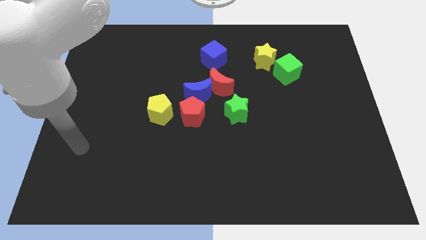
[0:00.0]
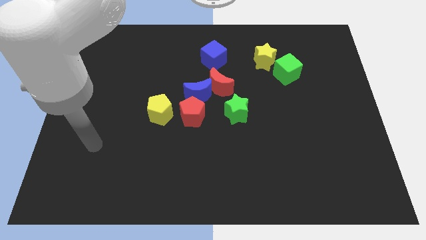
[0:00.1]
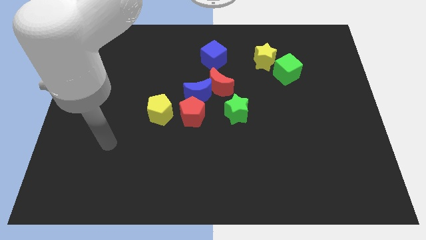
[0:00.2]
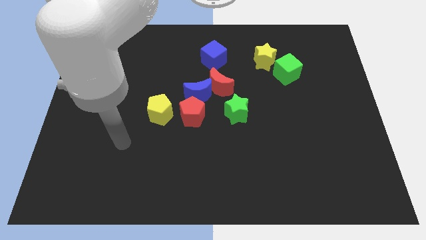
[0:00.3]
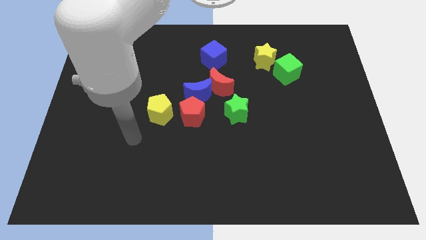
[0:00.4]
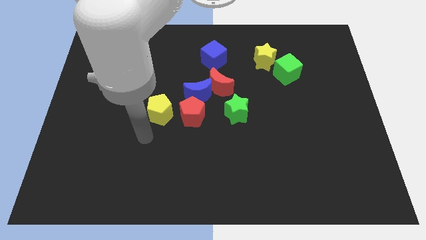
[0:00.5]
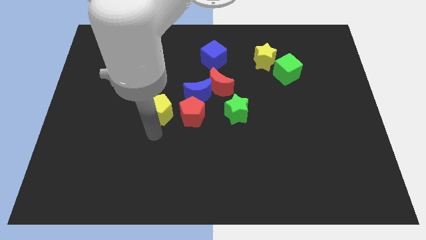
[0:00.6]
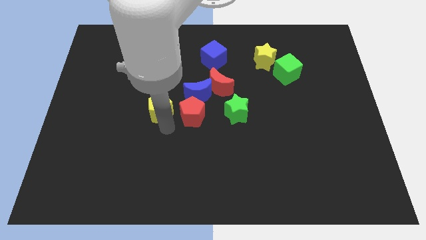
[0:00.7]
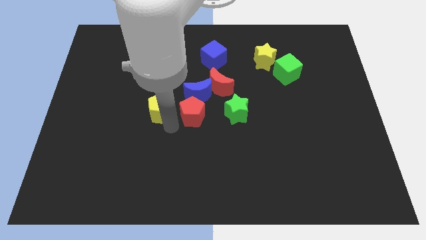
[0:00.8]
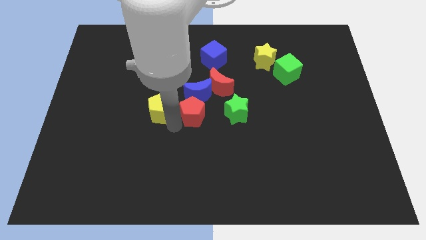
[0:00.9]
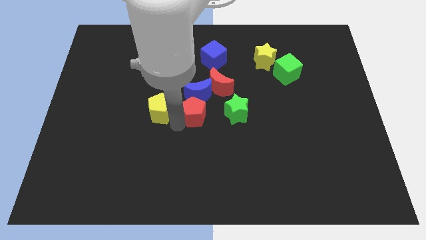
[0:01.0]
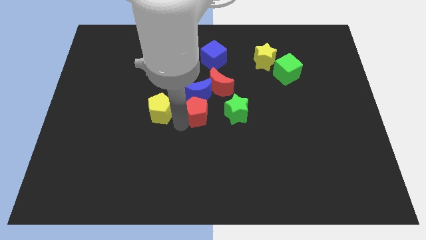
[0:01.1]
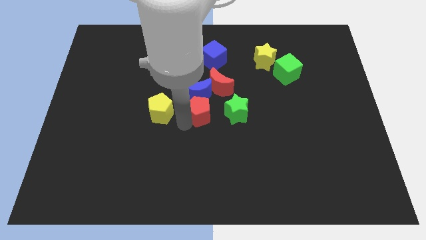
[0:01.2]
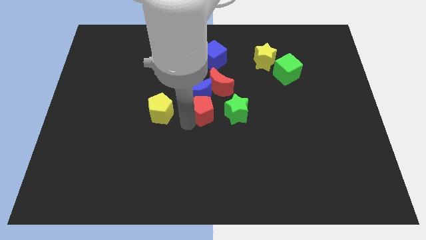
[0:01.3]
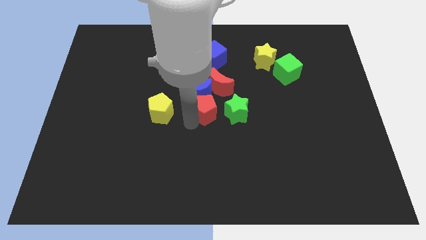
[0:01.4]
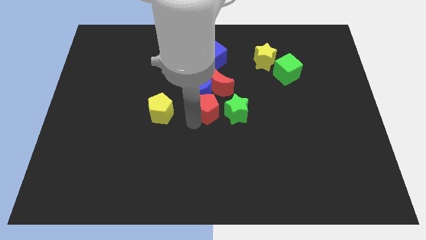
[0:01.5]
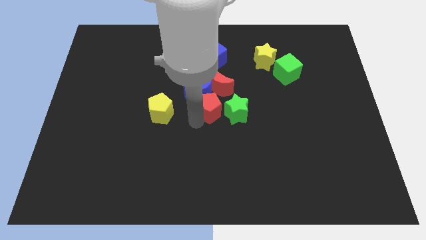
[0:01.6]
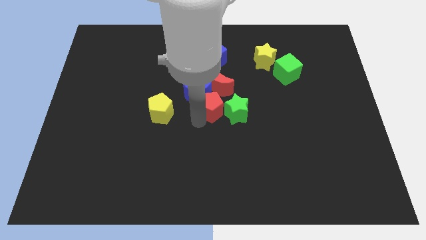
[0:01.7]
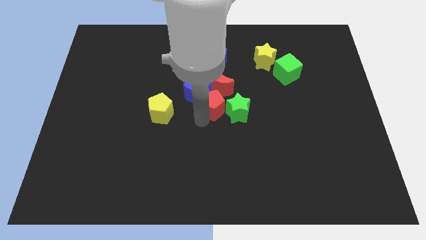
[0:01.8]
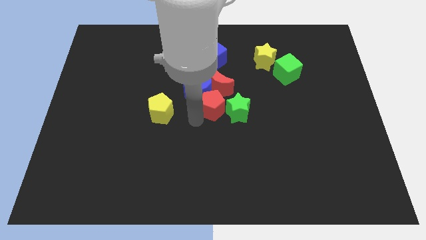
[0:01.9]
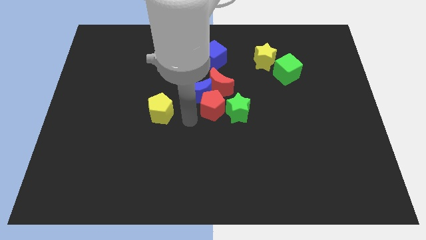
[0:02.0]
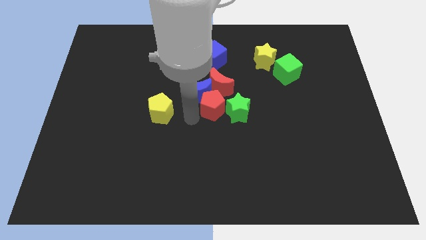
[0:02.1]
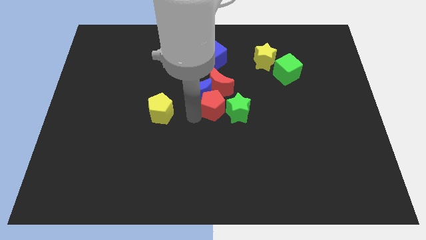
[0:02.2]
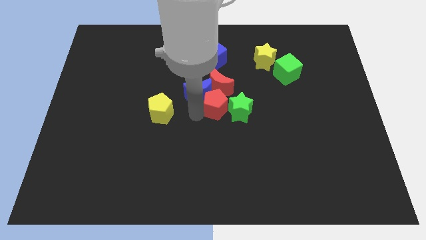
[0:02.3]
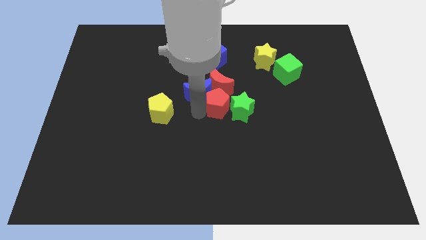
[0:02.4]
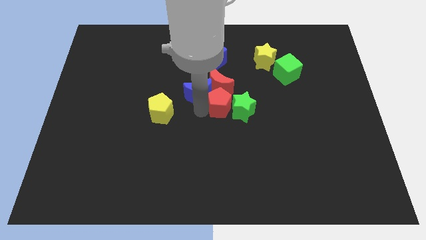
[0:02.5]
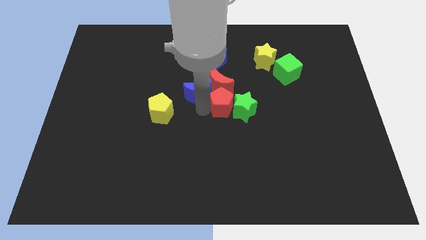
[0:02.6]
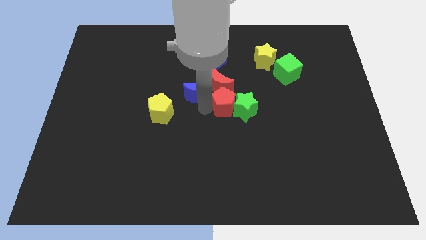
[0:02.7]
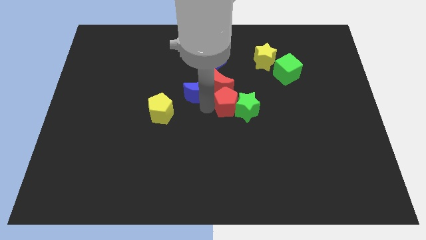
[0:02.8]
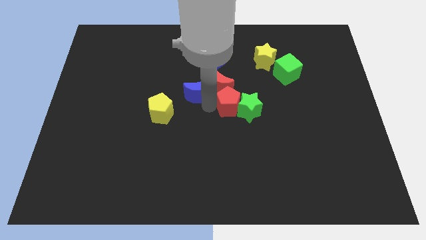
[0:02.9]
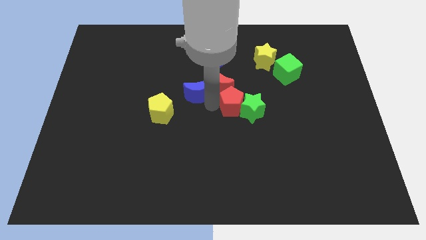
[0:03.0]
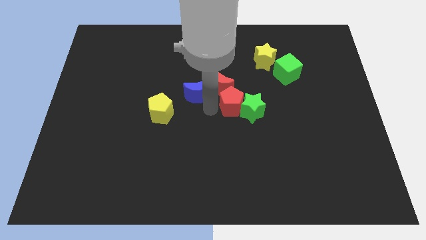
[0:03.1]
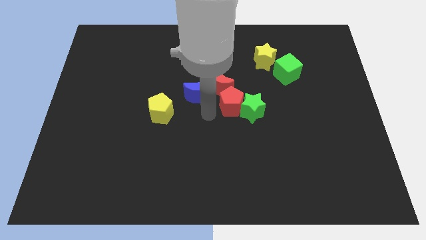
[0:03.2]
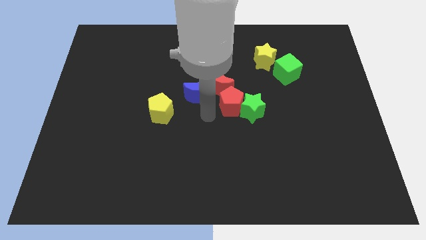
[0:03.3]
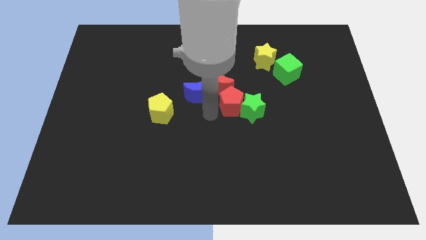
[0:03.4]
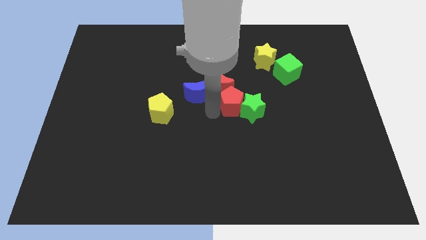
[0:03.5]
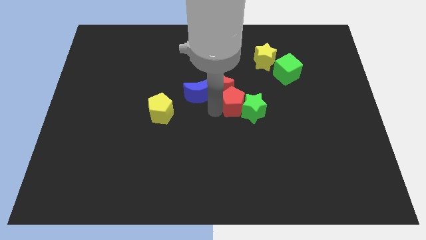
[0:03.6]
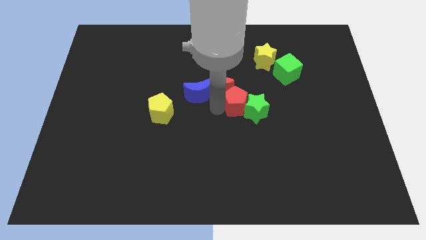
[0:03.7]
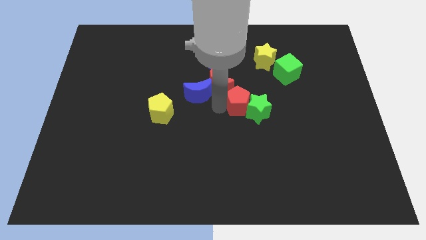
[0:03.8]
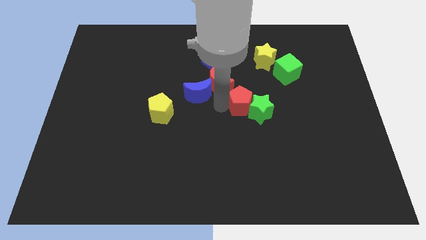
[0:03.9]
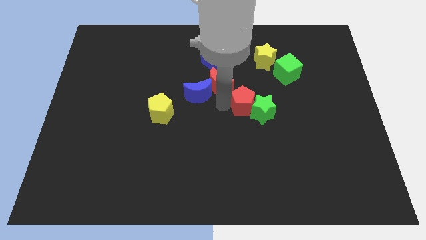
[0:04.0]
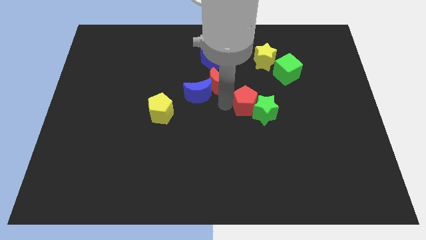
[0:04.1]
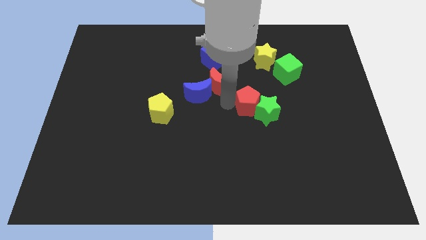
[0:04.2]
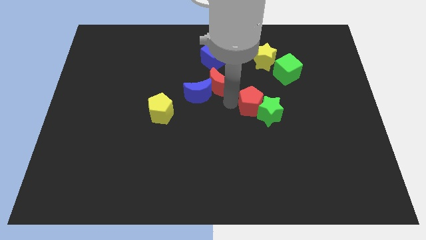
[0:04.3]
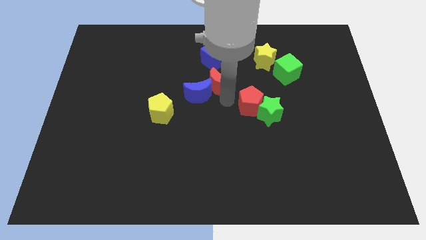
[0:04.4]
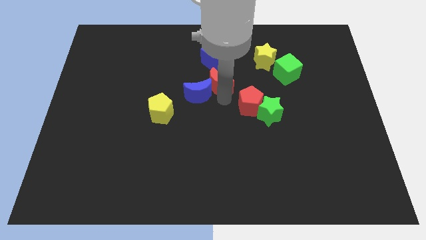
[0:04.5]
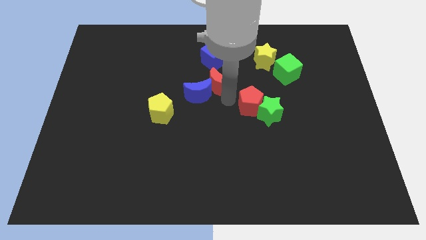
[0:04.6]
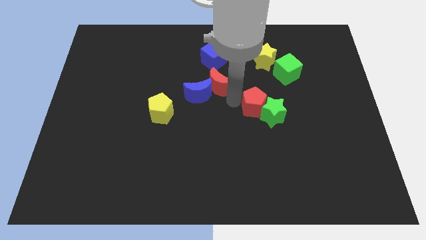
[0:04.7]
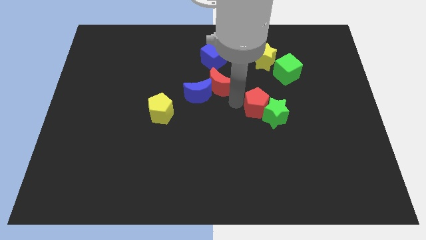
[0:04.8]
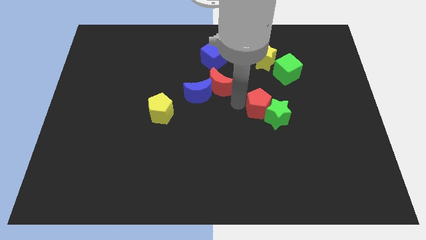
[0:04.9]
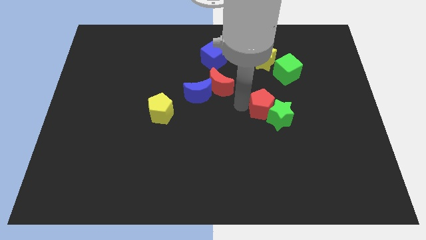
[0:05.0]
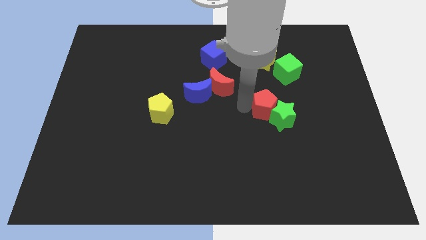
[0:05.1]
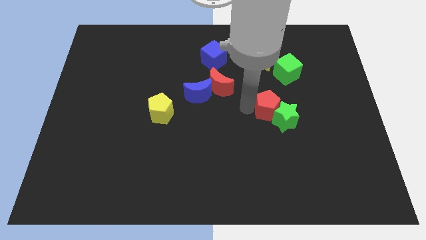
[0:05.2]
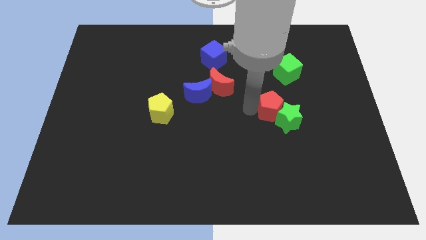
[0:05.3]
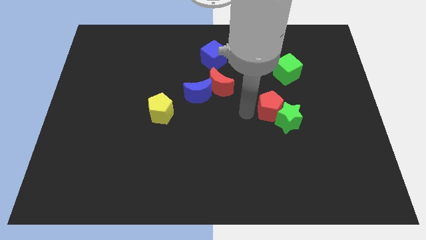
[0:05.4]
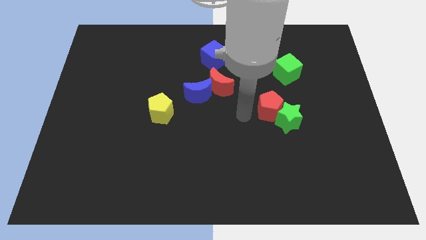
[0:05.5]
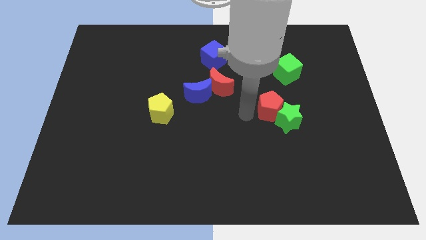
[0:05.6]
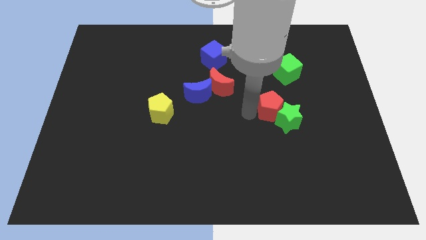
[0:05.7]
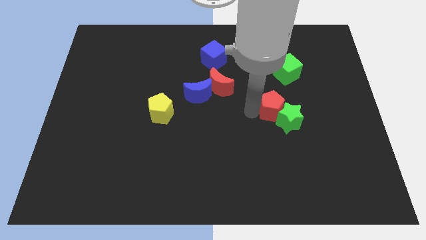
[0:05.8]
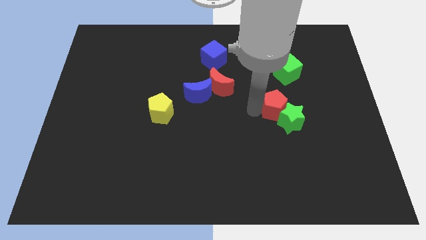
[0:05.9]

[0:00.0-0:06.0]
move the red pentagon to the bottom of the green cube

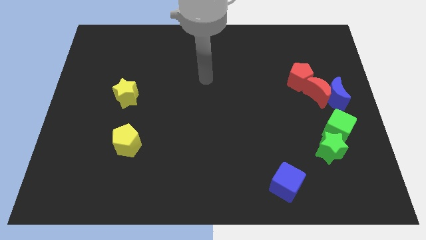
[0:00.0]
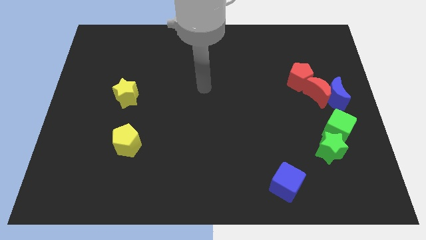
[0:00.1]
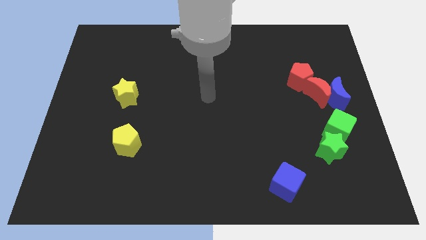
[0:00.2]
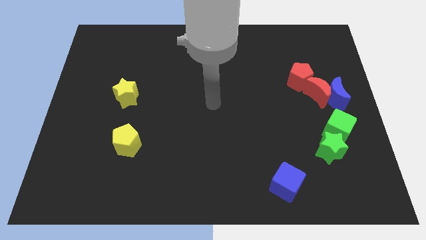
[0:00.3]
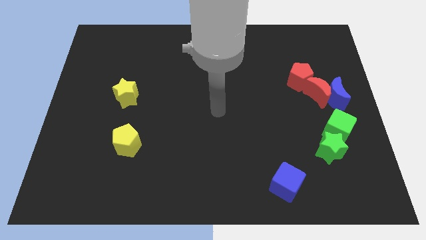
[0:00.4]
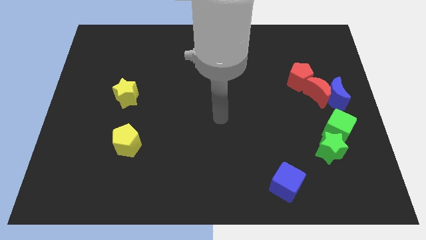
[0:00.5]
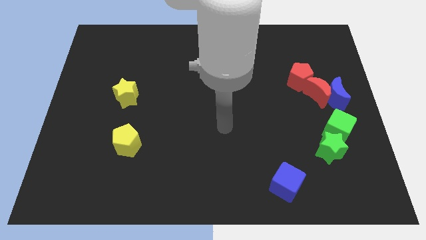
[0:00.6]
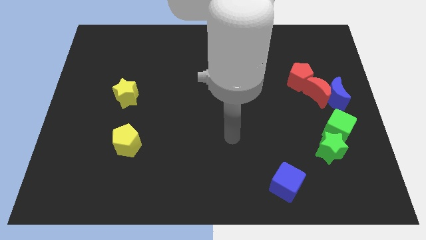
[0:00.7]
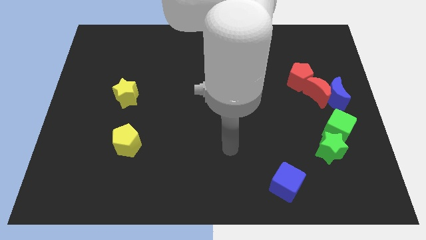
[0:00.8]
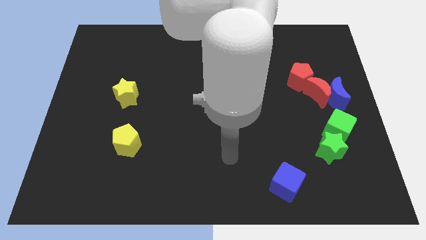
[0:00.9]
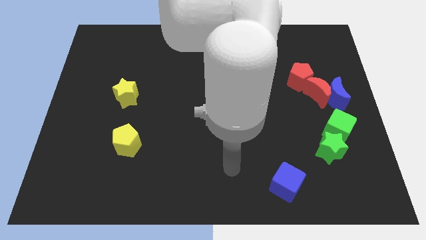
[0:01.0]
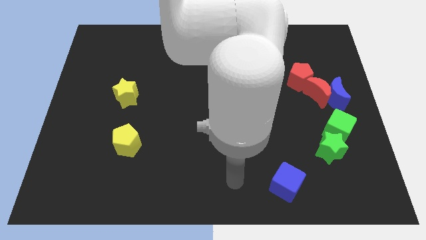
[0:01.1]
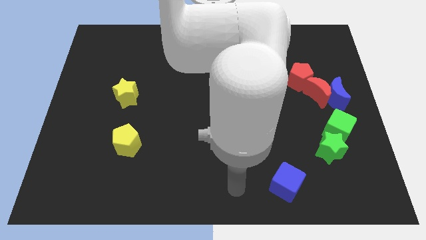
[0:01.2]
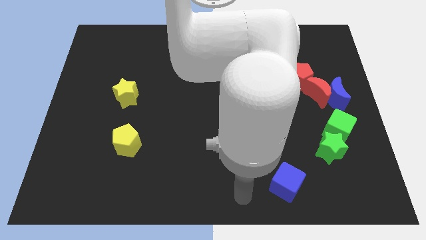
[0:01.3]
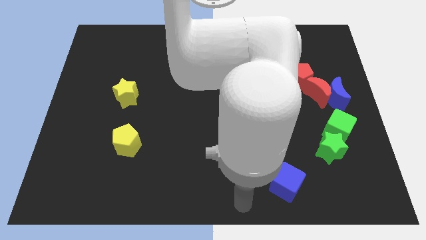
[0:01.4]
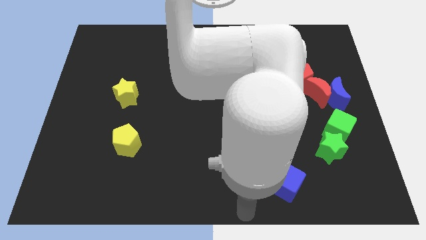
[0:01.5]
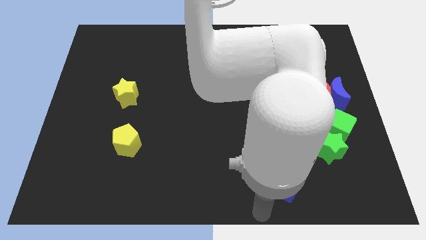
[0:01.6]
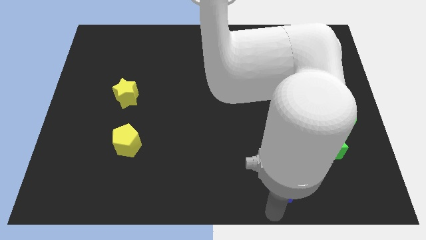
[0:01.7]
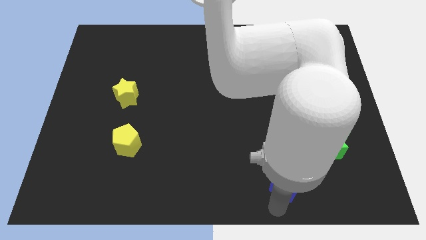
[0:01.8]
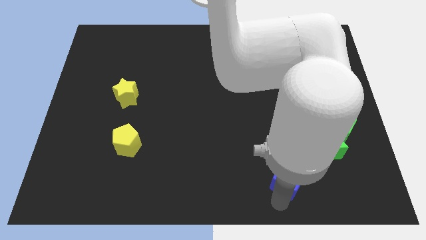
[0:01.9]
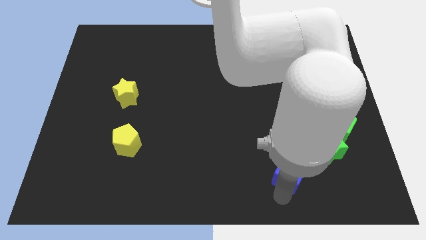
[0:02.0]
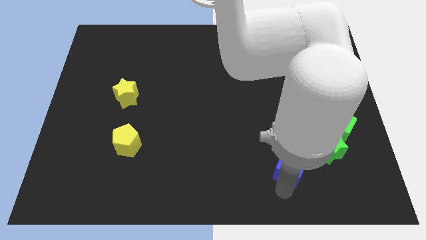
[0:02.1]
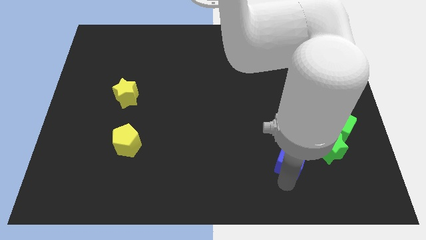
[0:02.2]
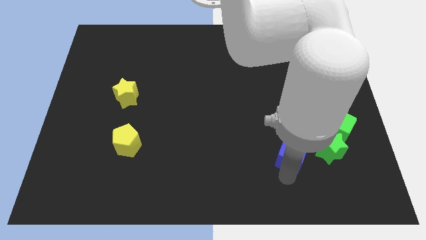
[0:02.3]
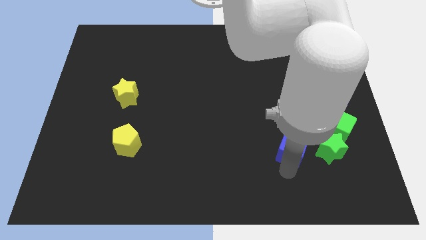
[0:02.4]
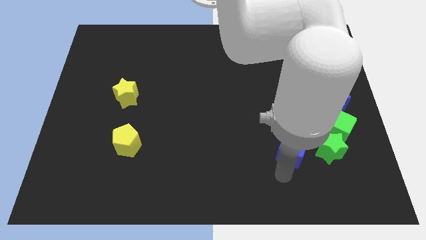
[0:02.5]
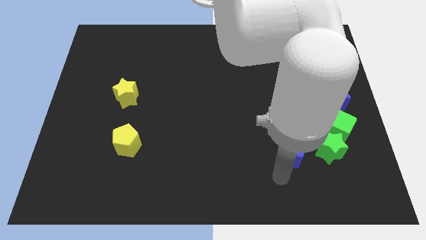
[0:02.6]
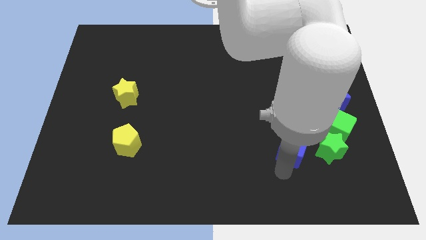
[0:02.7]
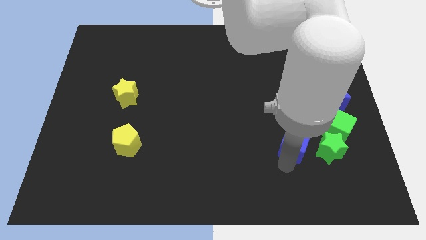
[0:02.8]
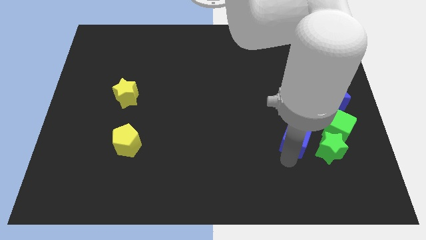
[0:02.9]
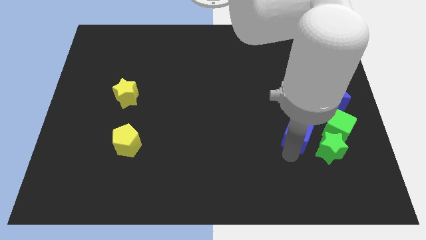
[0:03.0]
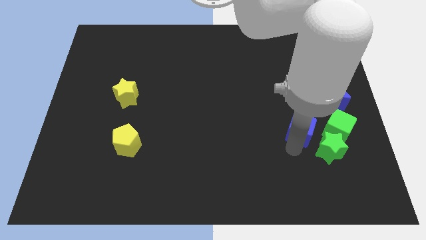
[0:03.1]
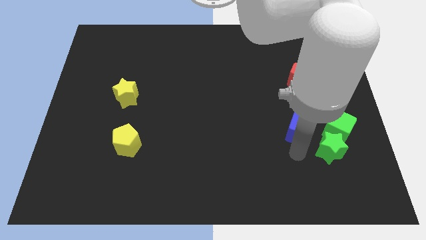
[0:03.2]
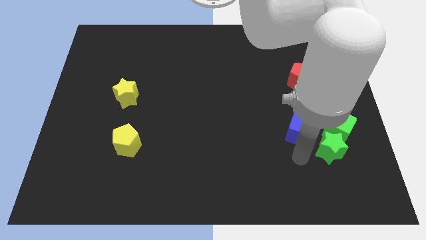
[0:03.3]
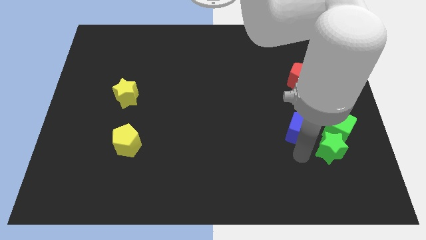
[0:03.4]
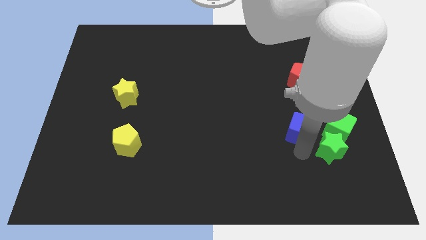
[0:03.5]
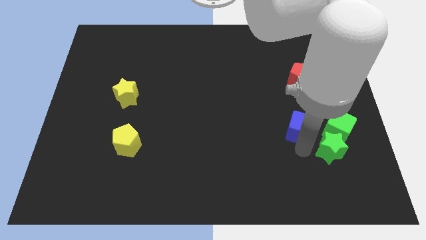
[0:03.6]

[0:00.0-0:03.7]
put the blue cube diagonally down and to the left of the red moon
